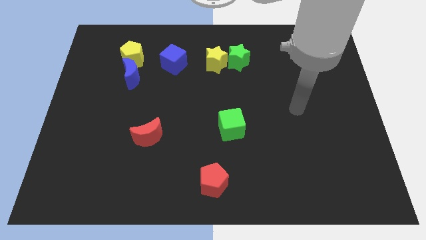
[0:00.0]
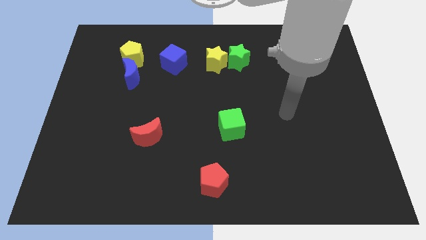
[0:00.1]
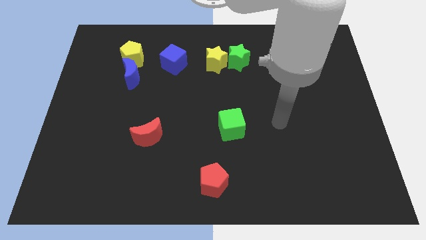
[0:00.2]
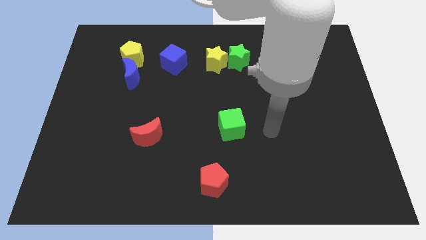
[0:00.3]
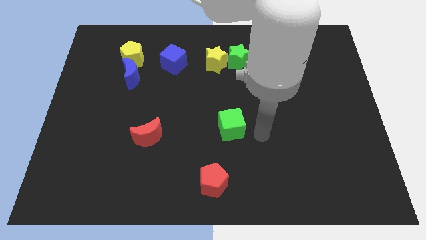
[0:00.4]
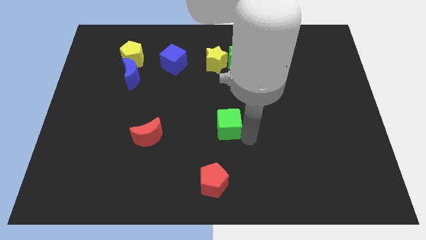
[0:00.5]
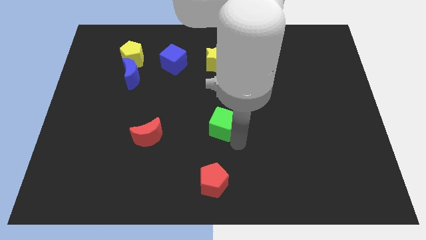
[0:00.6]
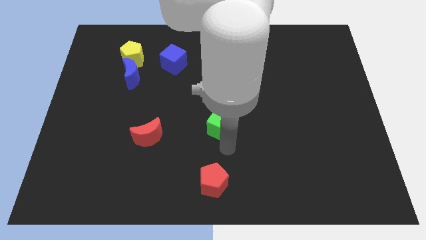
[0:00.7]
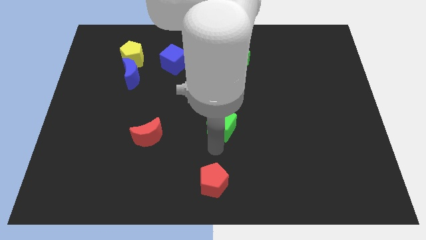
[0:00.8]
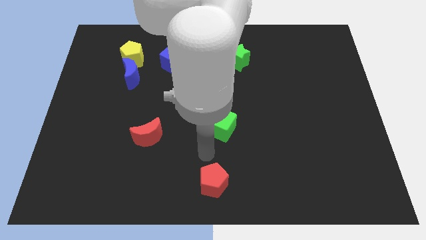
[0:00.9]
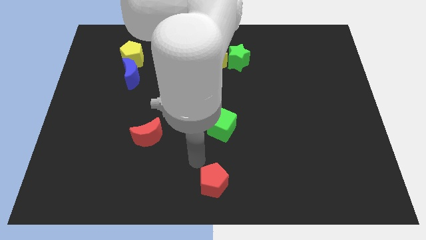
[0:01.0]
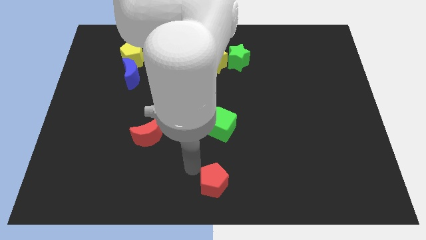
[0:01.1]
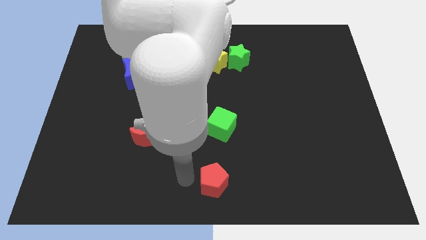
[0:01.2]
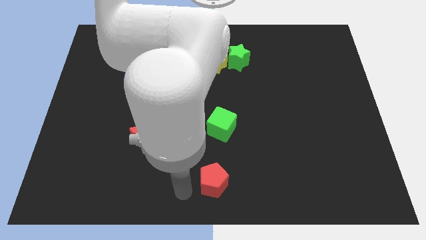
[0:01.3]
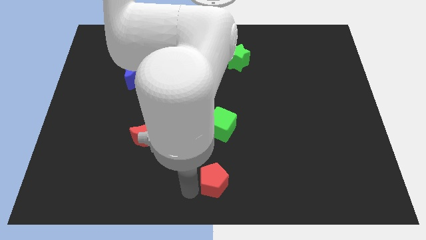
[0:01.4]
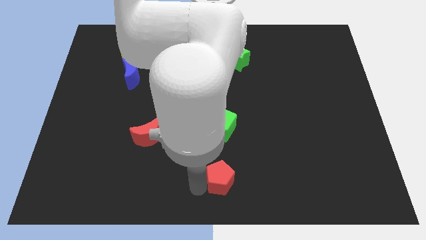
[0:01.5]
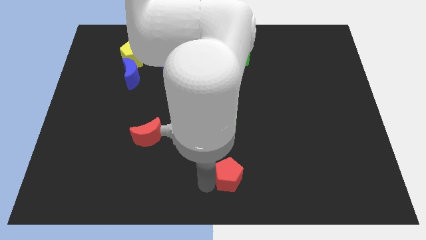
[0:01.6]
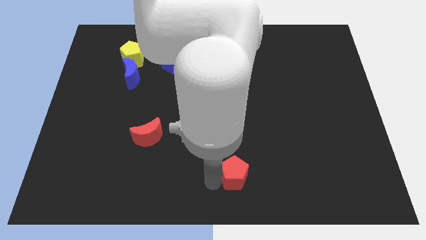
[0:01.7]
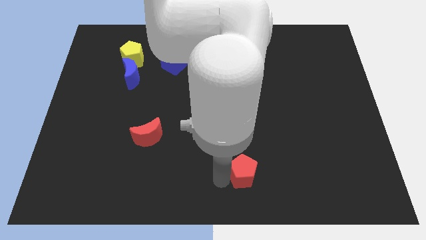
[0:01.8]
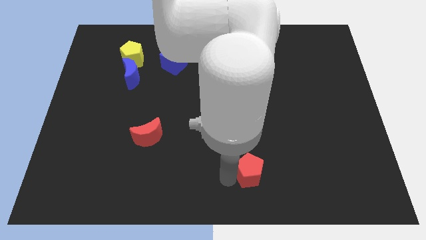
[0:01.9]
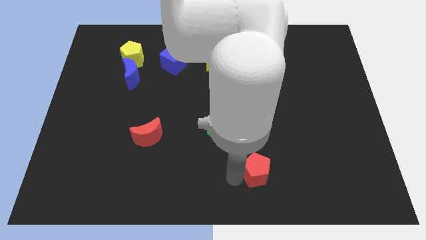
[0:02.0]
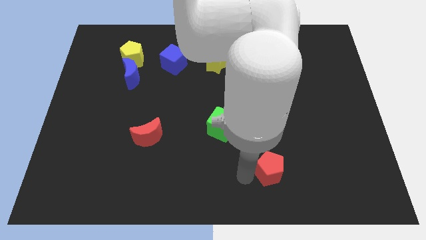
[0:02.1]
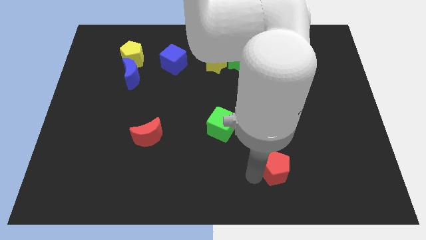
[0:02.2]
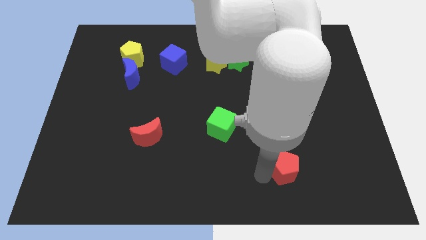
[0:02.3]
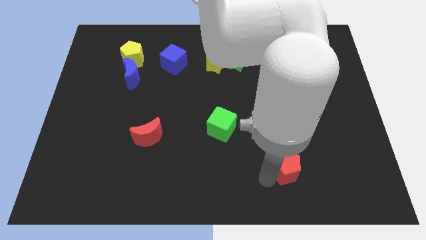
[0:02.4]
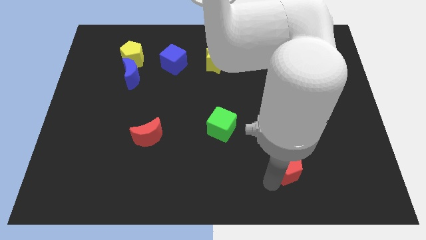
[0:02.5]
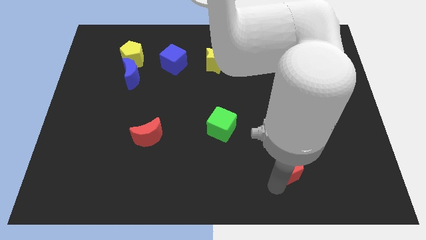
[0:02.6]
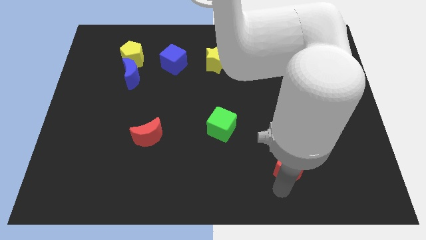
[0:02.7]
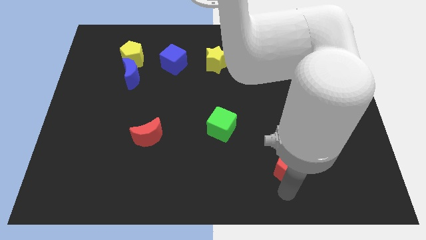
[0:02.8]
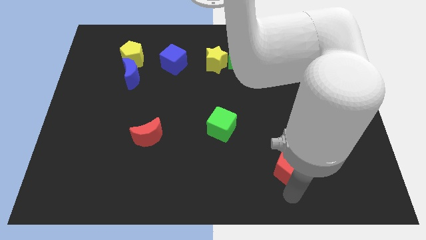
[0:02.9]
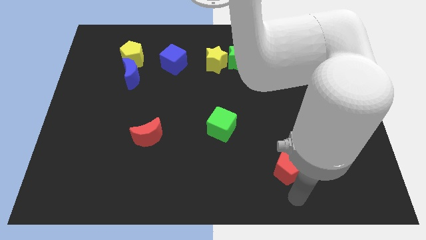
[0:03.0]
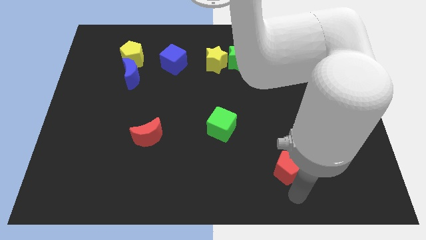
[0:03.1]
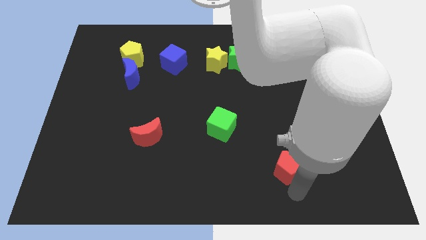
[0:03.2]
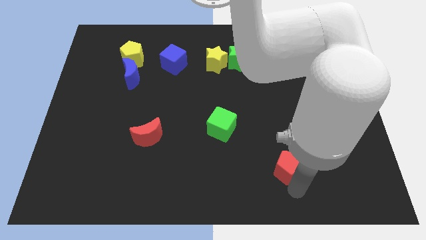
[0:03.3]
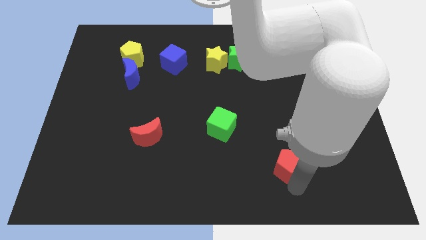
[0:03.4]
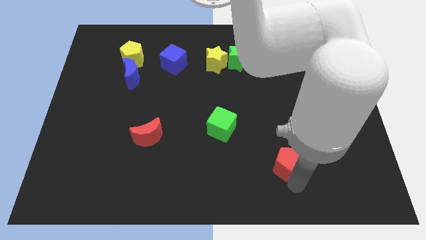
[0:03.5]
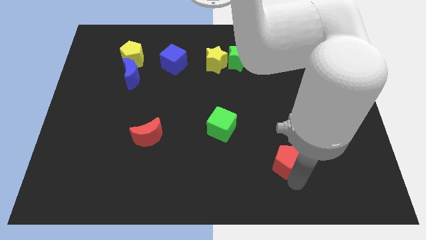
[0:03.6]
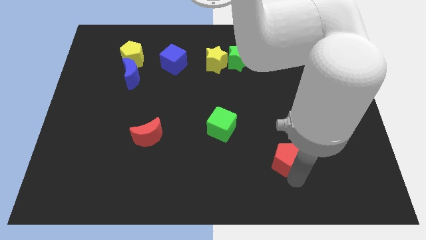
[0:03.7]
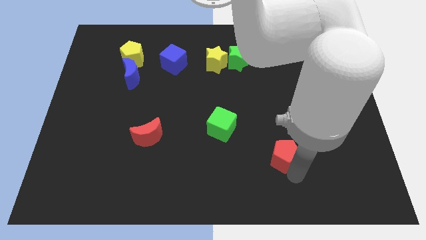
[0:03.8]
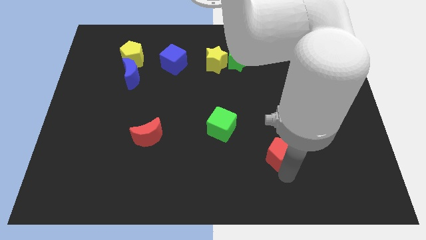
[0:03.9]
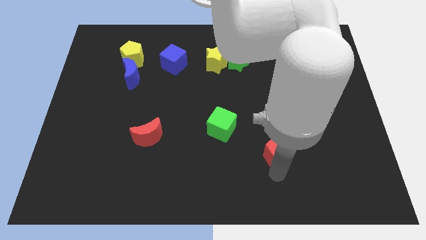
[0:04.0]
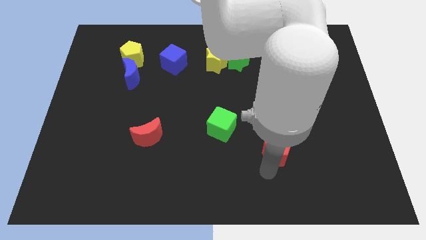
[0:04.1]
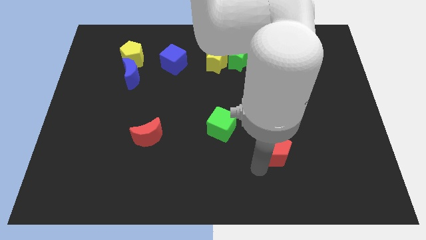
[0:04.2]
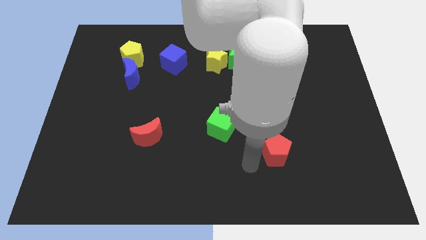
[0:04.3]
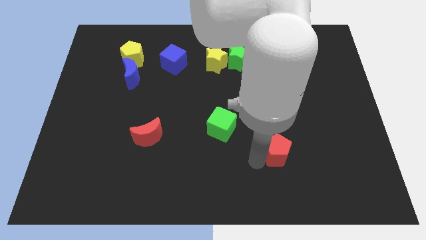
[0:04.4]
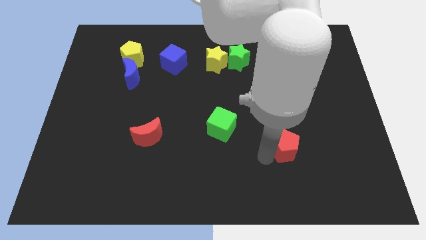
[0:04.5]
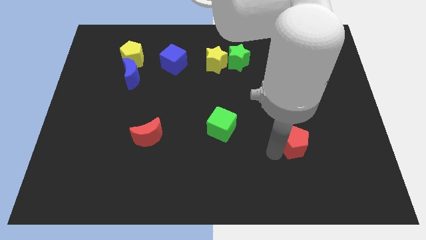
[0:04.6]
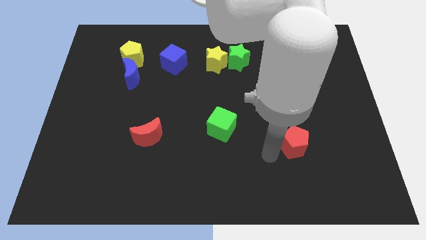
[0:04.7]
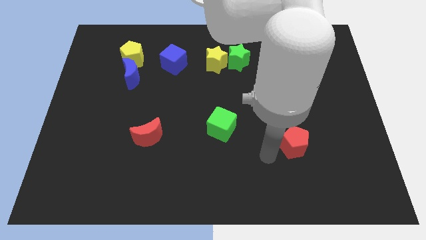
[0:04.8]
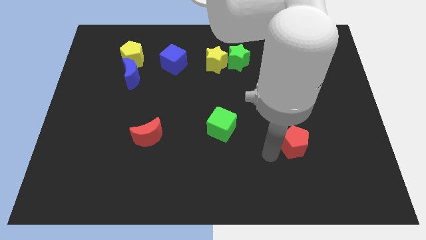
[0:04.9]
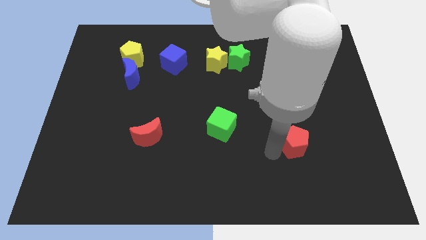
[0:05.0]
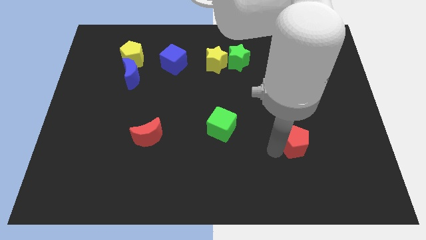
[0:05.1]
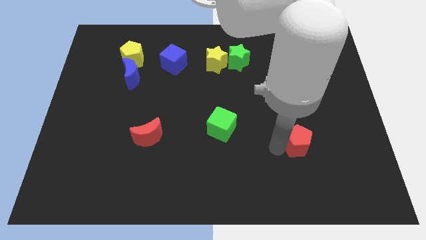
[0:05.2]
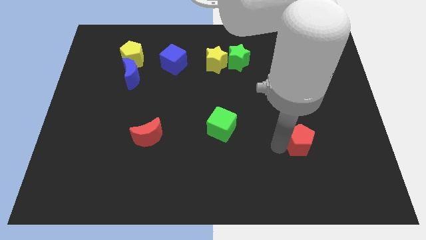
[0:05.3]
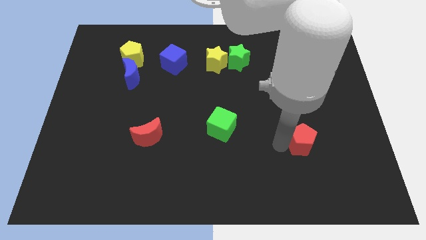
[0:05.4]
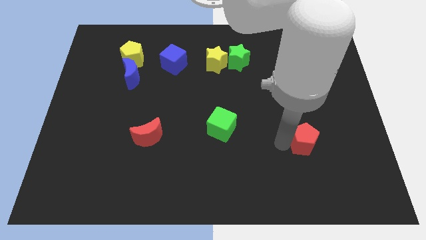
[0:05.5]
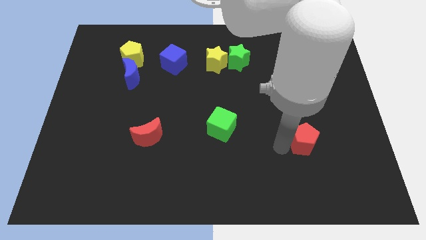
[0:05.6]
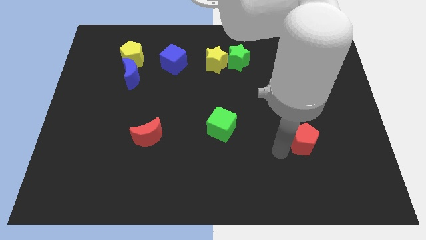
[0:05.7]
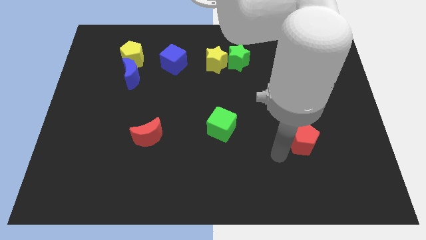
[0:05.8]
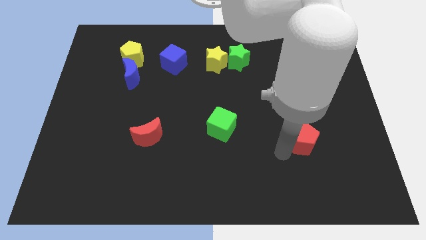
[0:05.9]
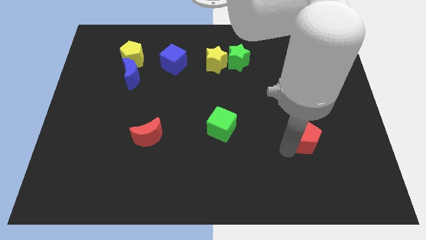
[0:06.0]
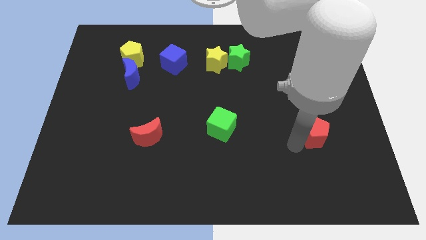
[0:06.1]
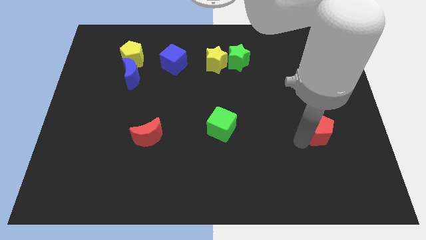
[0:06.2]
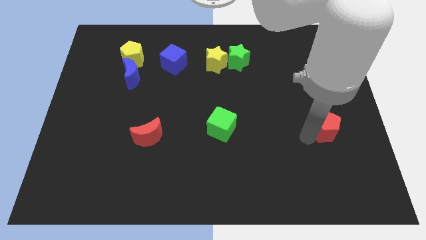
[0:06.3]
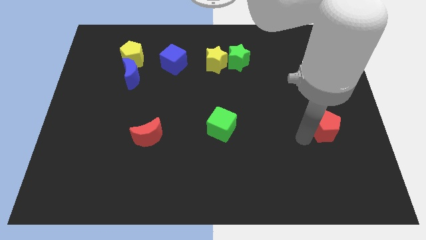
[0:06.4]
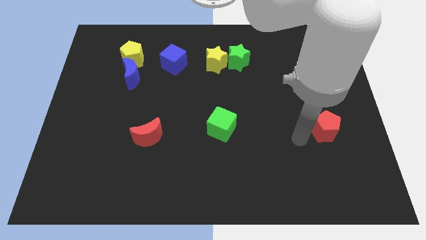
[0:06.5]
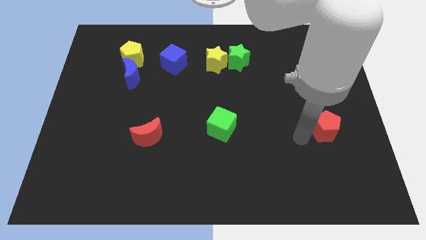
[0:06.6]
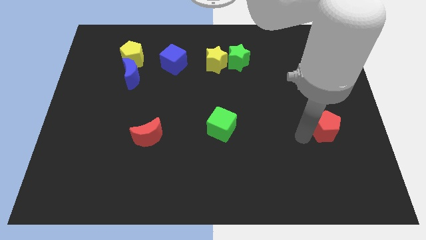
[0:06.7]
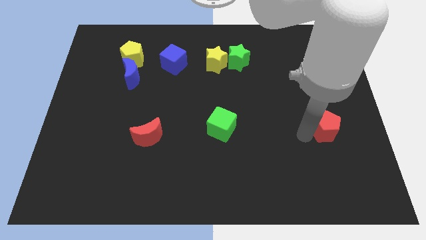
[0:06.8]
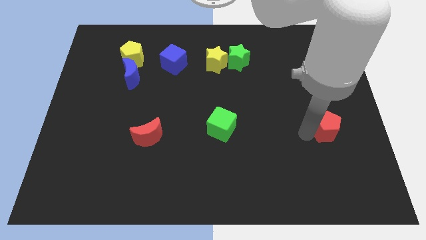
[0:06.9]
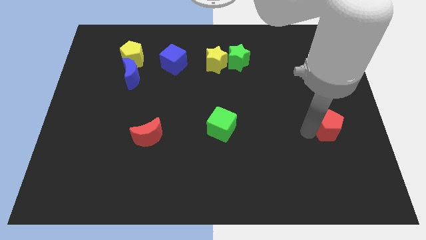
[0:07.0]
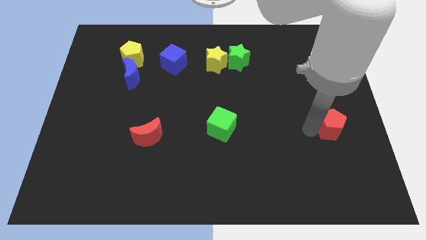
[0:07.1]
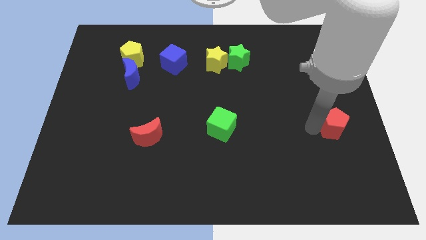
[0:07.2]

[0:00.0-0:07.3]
put the red pentagon to the right side of the board
